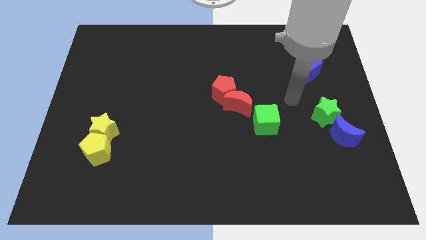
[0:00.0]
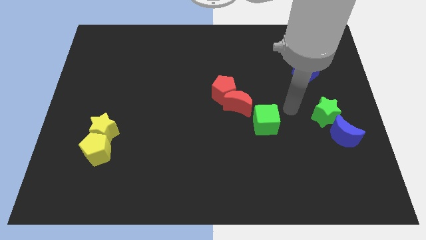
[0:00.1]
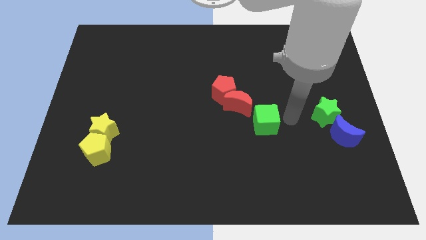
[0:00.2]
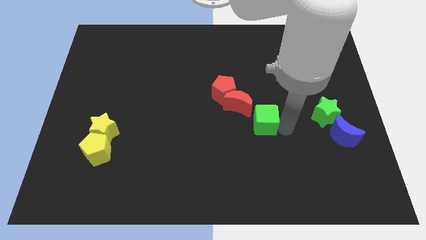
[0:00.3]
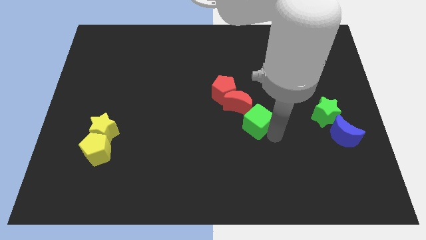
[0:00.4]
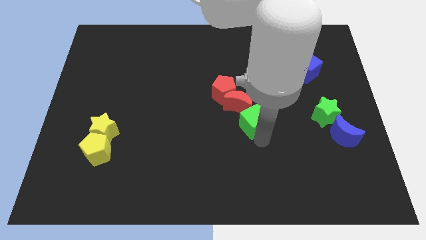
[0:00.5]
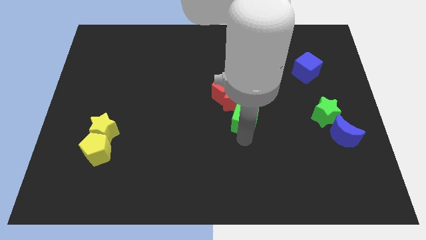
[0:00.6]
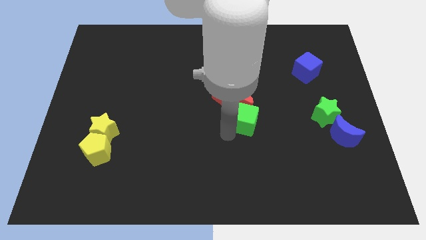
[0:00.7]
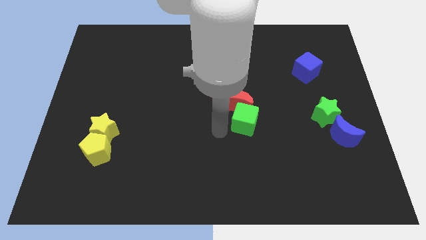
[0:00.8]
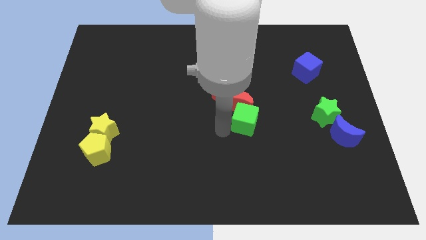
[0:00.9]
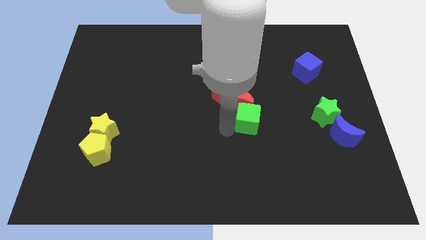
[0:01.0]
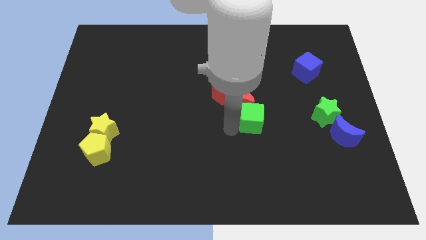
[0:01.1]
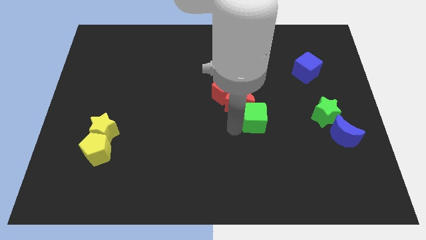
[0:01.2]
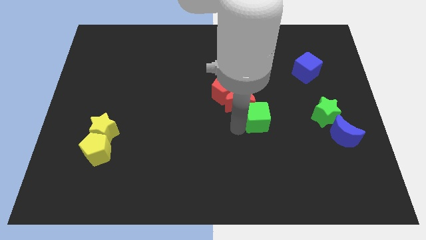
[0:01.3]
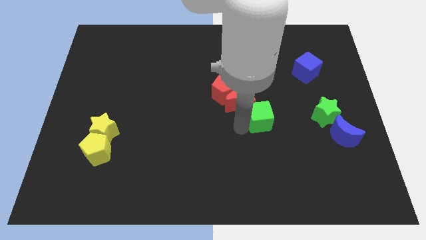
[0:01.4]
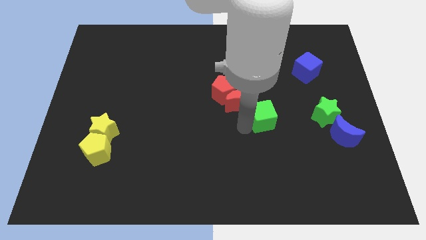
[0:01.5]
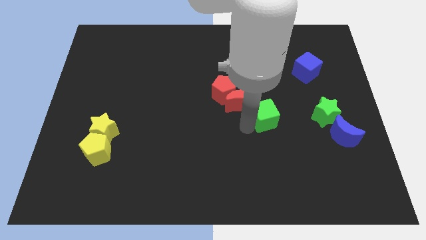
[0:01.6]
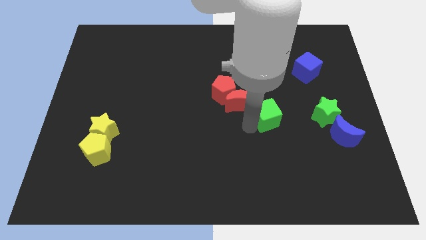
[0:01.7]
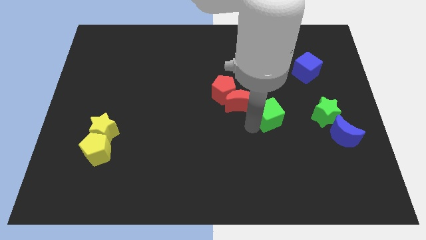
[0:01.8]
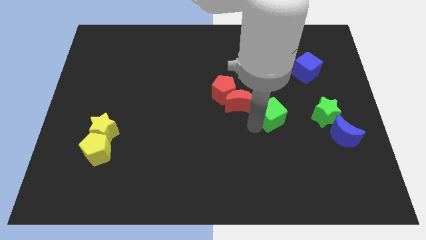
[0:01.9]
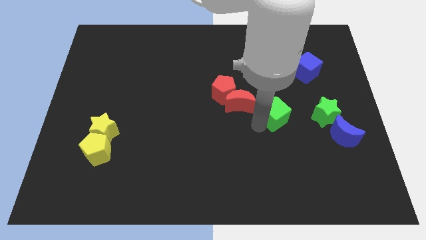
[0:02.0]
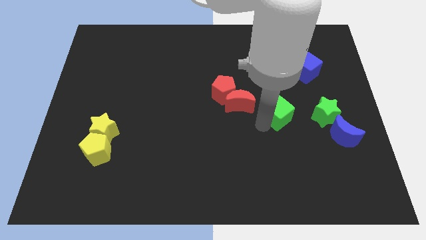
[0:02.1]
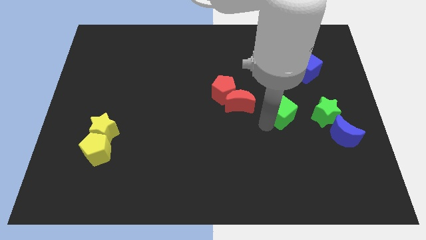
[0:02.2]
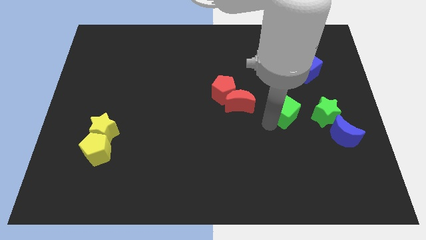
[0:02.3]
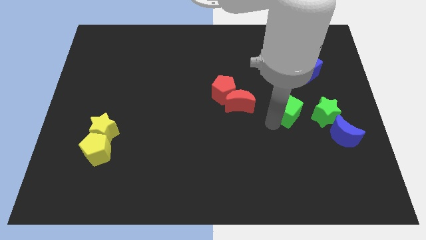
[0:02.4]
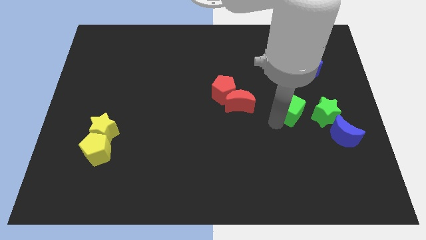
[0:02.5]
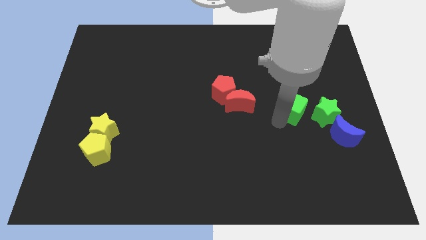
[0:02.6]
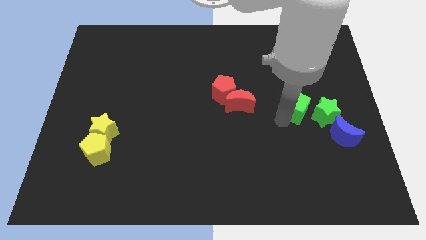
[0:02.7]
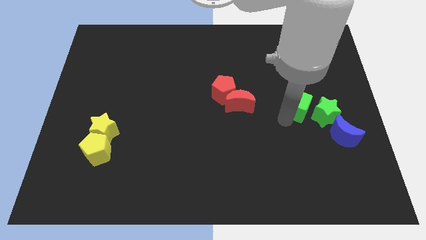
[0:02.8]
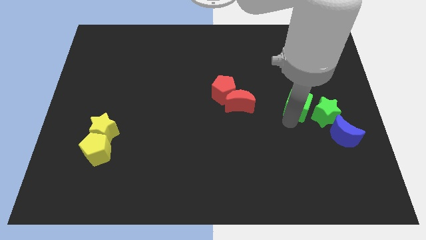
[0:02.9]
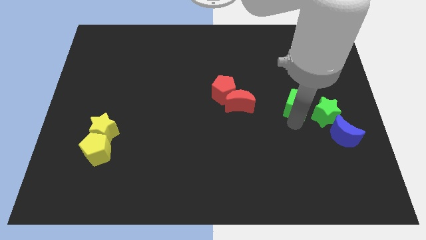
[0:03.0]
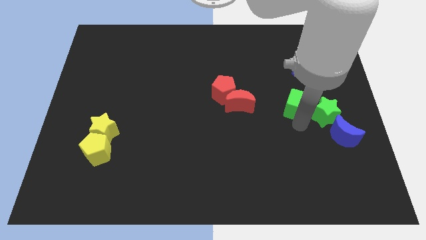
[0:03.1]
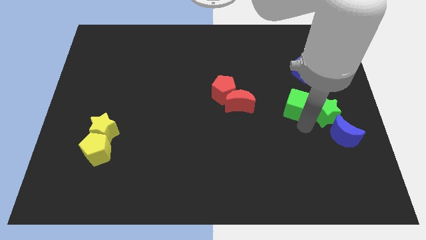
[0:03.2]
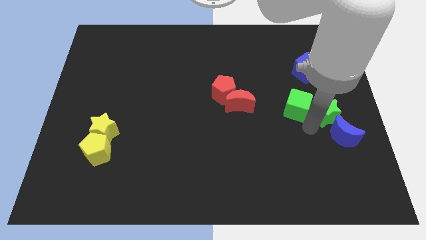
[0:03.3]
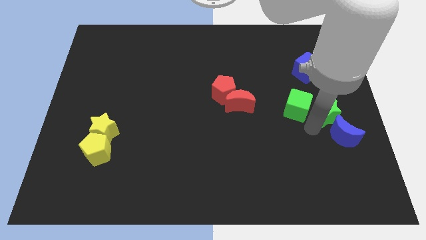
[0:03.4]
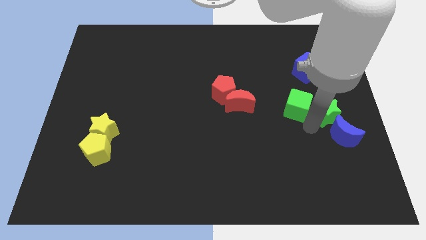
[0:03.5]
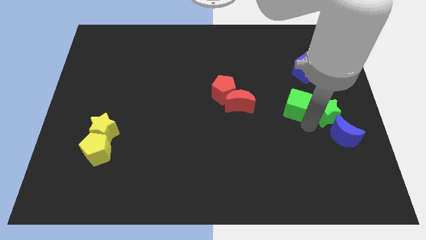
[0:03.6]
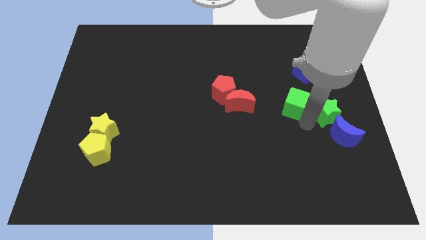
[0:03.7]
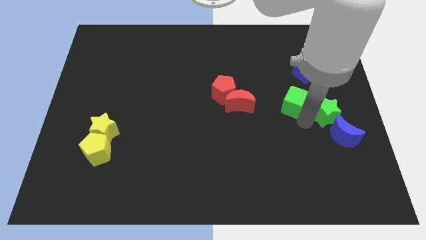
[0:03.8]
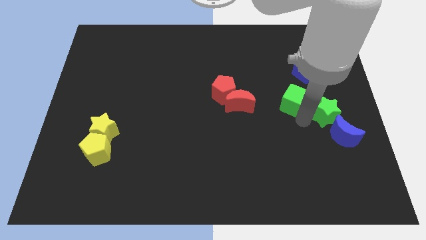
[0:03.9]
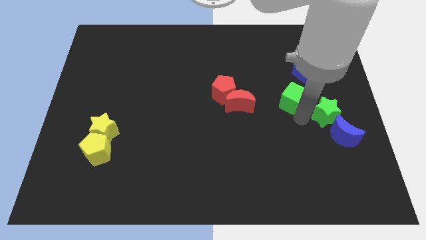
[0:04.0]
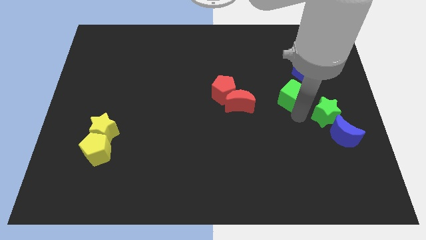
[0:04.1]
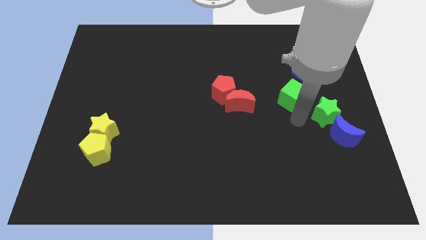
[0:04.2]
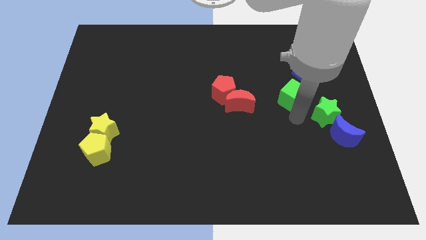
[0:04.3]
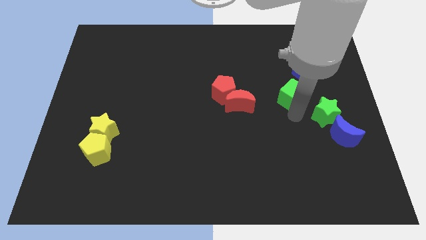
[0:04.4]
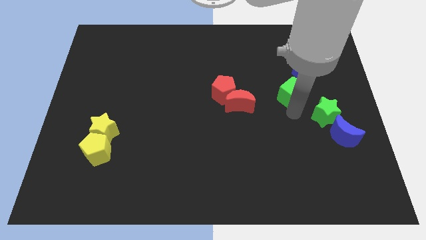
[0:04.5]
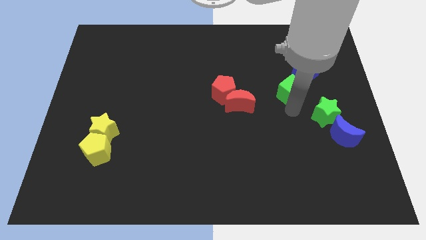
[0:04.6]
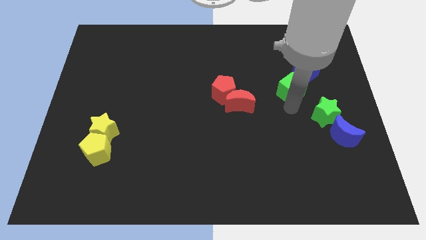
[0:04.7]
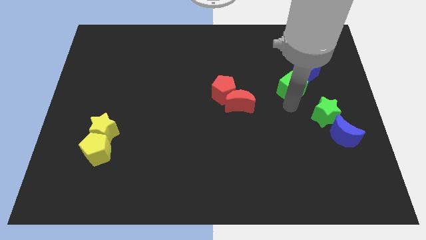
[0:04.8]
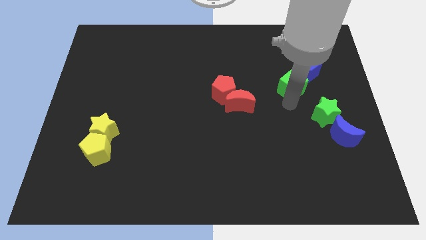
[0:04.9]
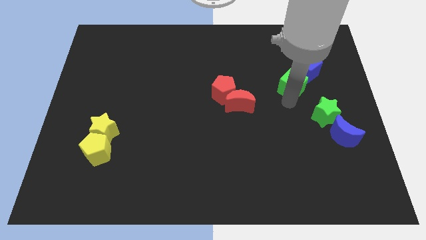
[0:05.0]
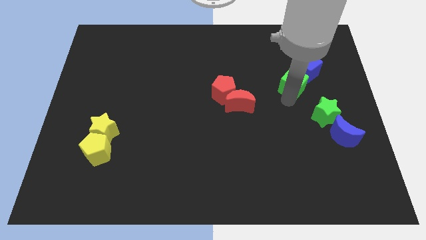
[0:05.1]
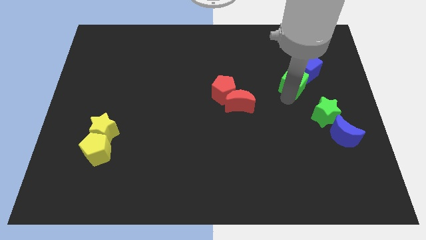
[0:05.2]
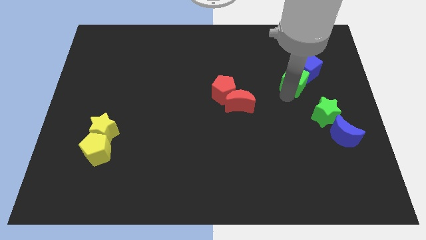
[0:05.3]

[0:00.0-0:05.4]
push the green cube close to the blue cube

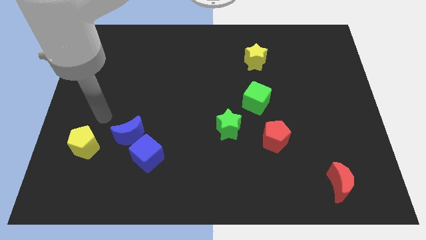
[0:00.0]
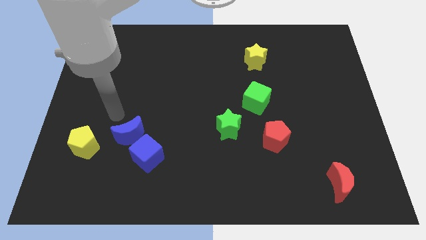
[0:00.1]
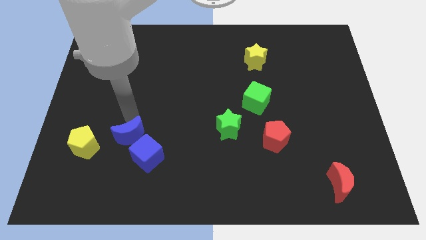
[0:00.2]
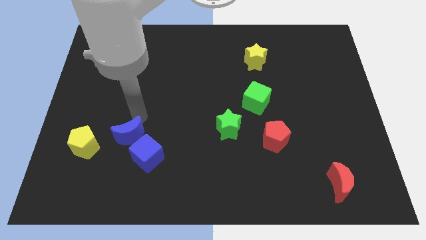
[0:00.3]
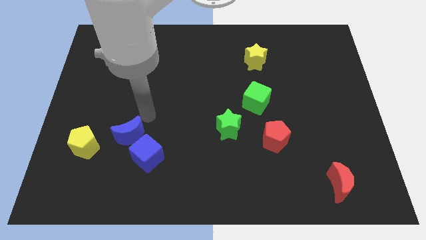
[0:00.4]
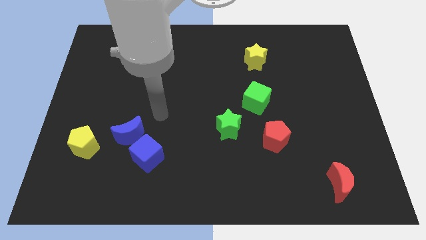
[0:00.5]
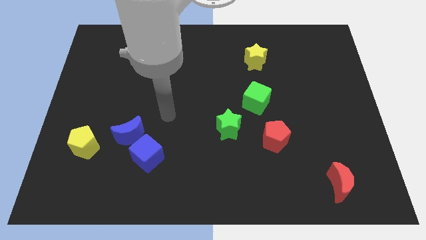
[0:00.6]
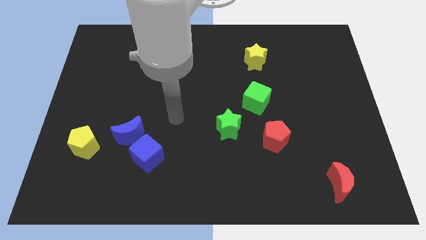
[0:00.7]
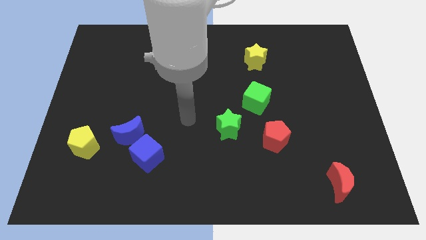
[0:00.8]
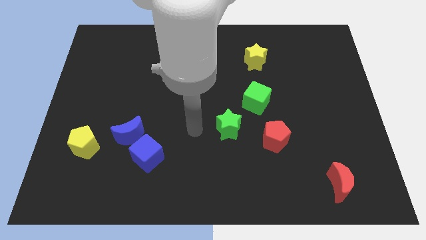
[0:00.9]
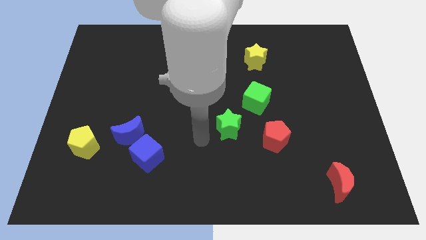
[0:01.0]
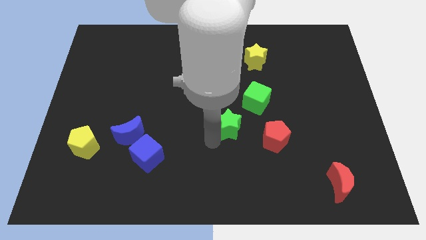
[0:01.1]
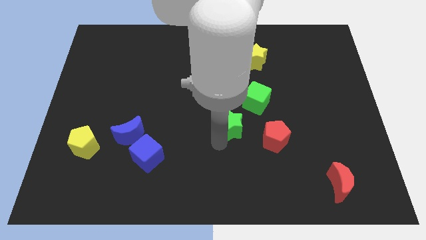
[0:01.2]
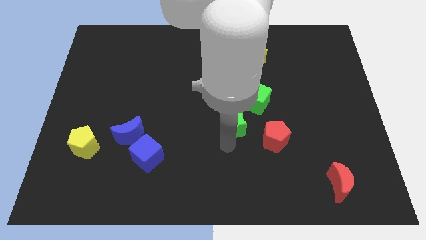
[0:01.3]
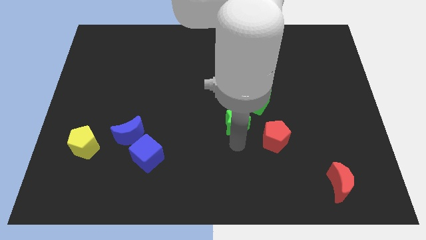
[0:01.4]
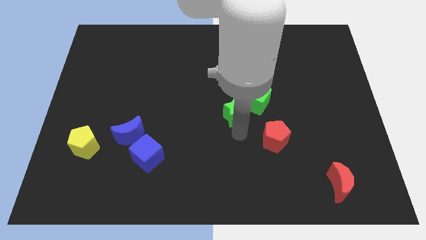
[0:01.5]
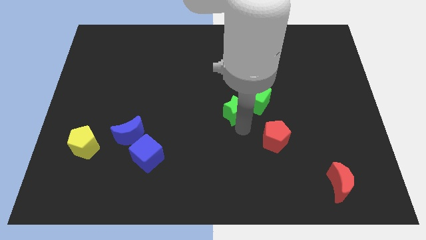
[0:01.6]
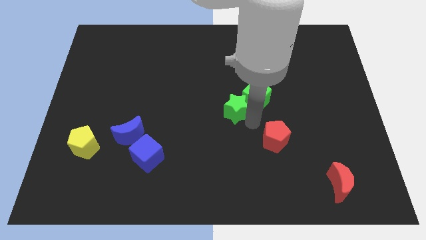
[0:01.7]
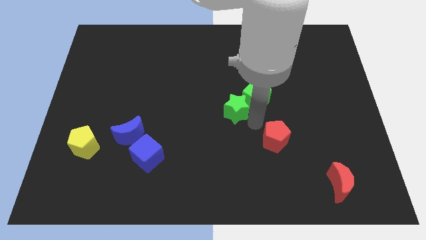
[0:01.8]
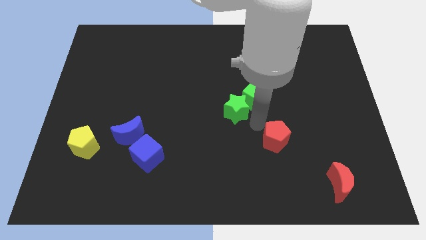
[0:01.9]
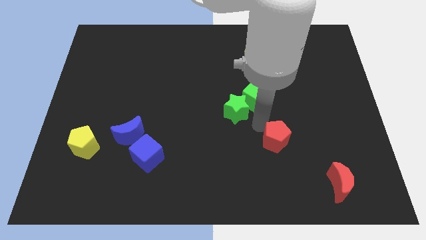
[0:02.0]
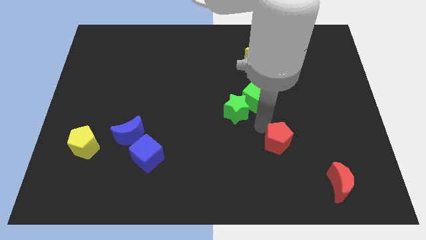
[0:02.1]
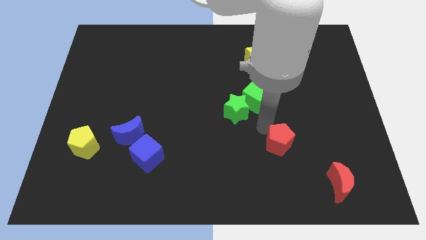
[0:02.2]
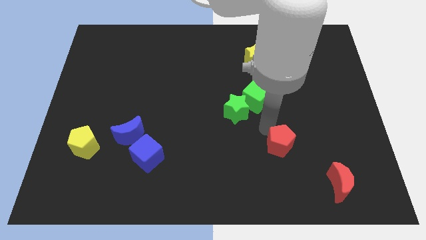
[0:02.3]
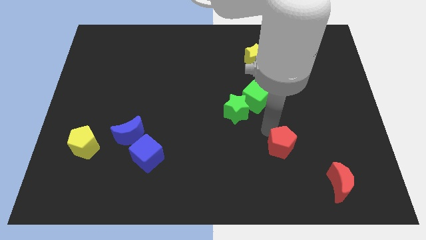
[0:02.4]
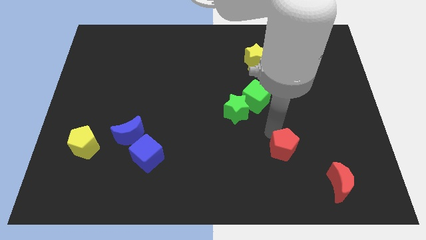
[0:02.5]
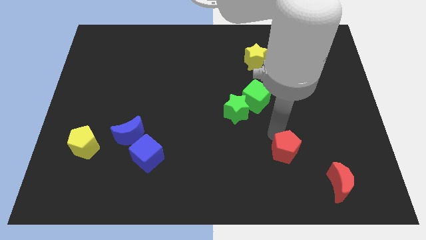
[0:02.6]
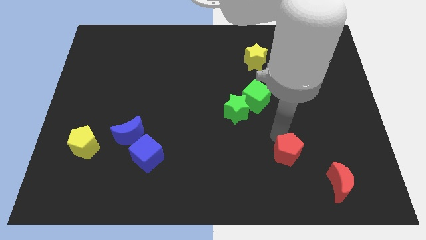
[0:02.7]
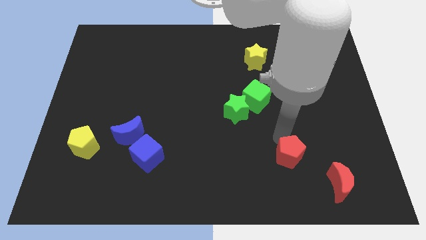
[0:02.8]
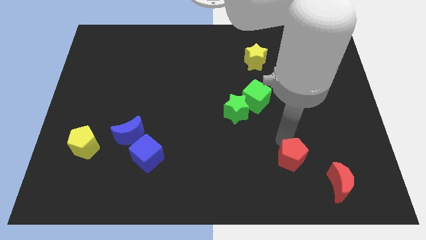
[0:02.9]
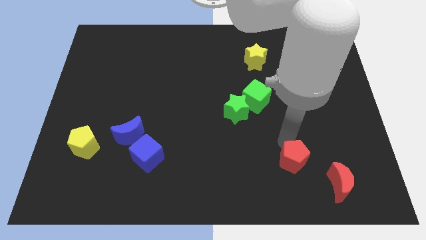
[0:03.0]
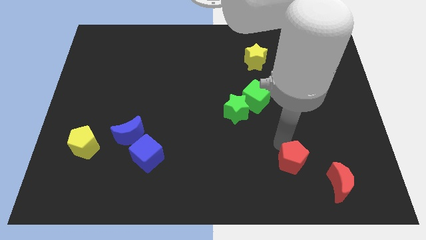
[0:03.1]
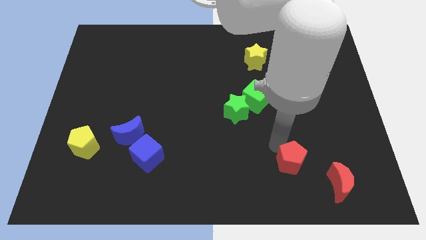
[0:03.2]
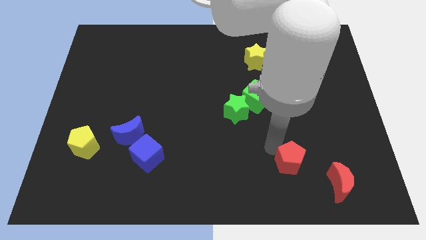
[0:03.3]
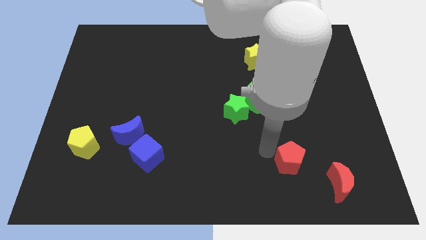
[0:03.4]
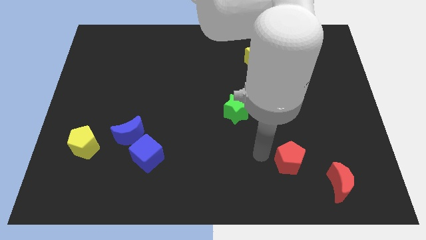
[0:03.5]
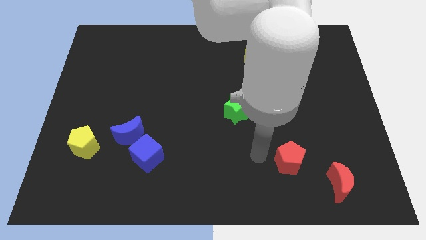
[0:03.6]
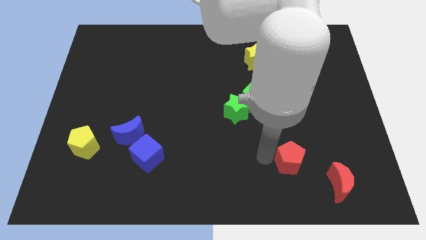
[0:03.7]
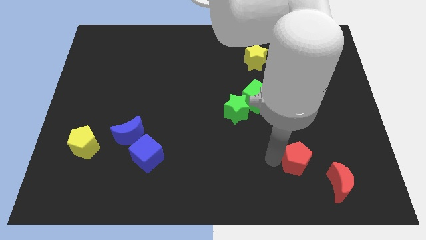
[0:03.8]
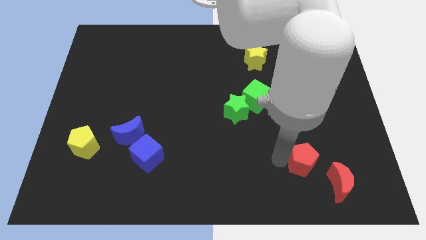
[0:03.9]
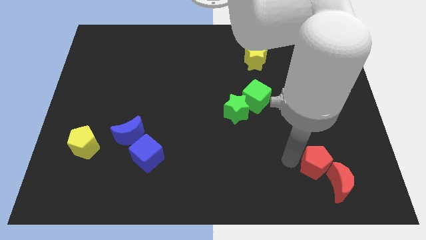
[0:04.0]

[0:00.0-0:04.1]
slide the red pentagon next to the red moon
